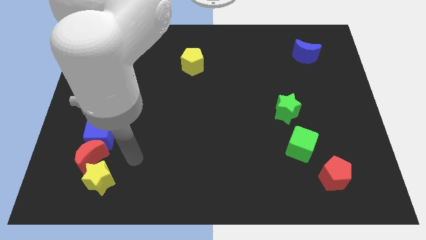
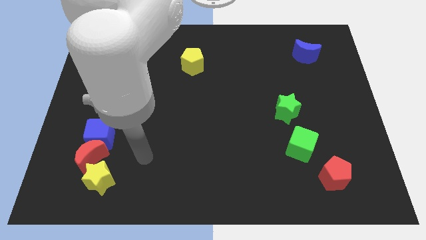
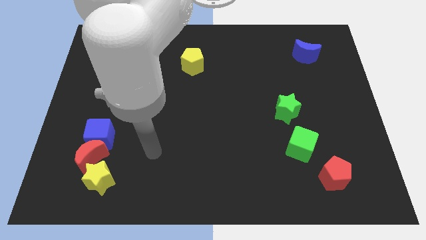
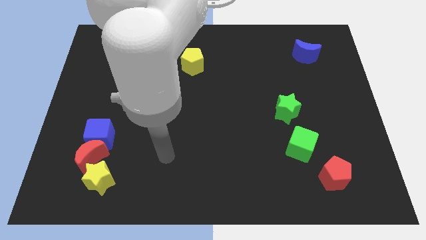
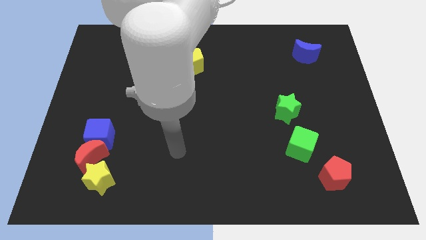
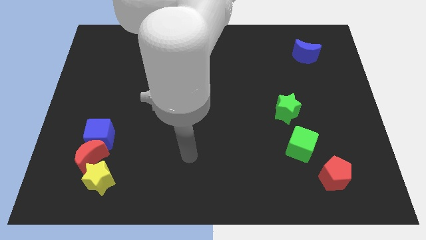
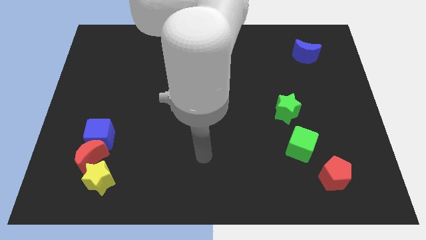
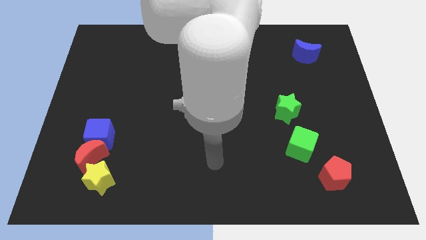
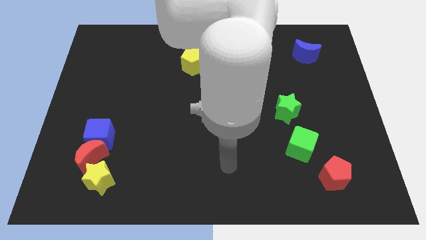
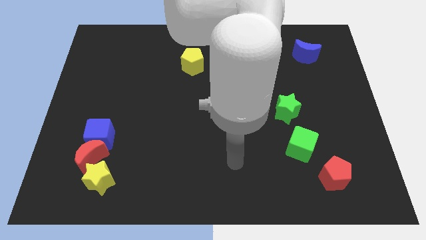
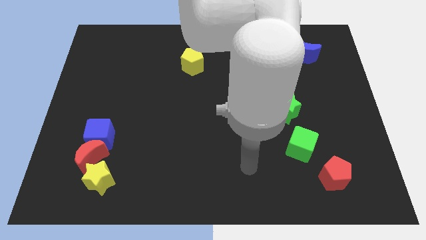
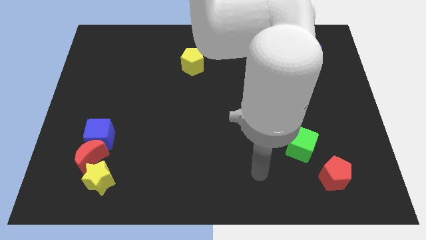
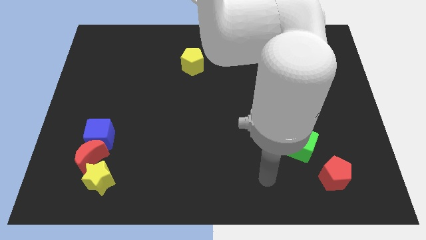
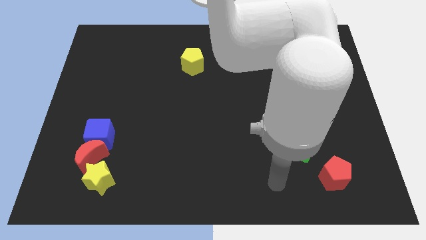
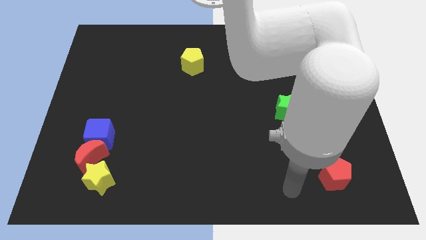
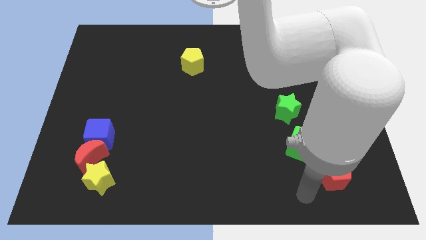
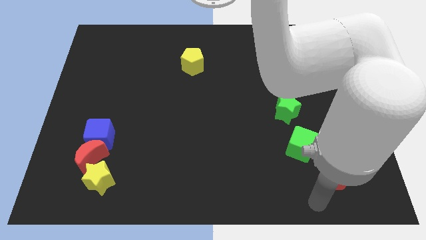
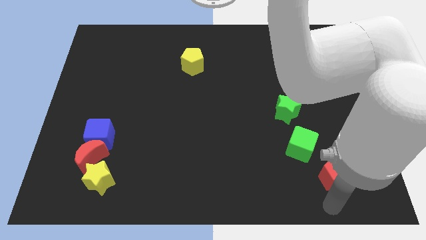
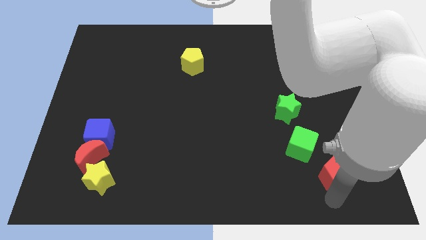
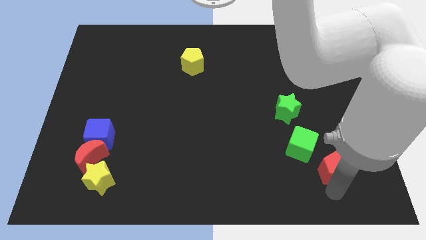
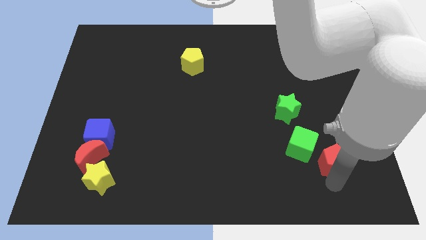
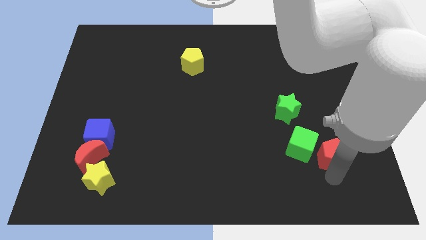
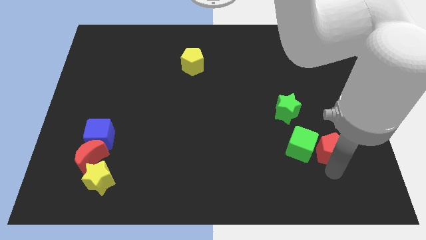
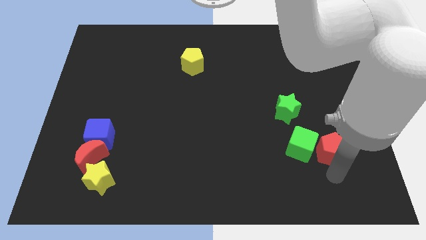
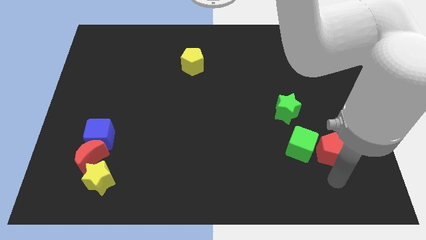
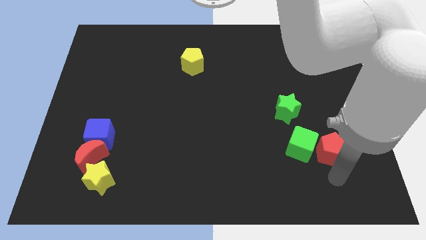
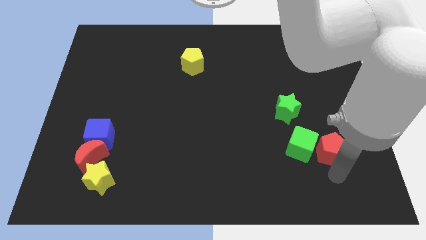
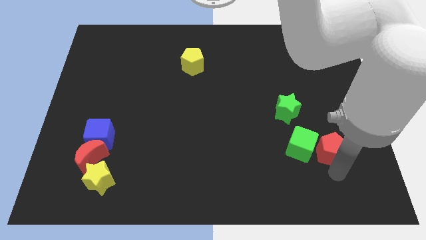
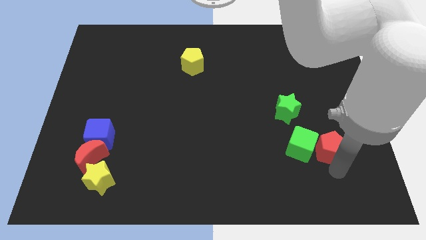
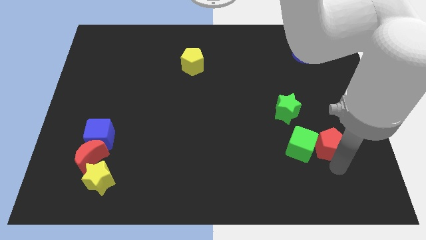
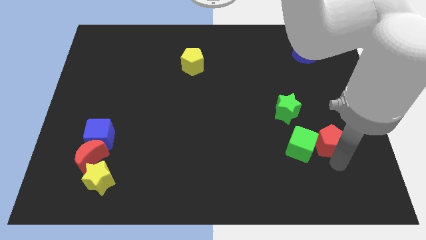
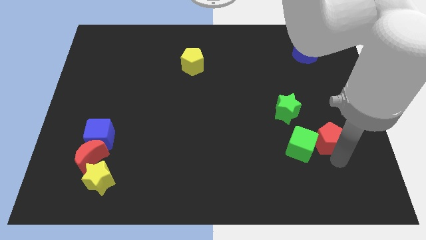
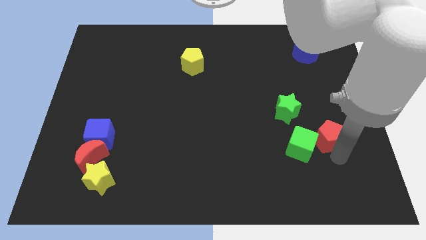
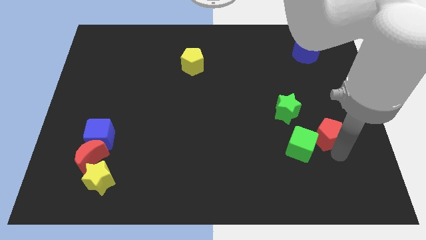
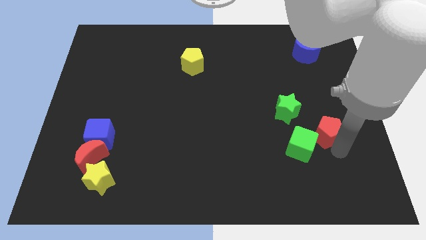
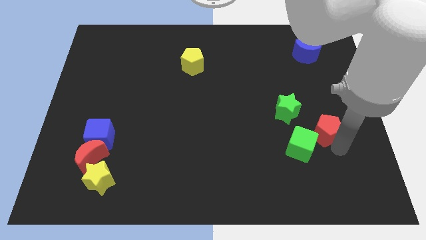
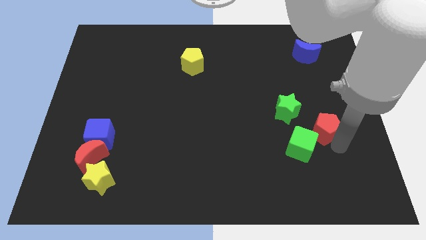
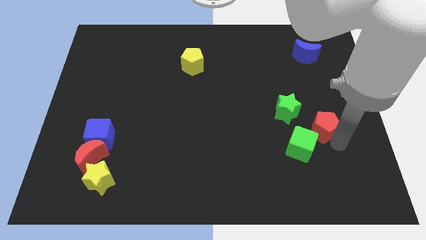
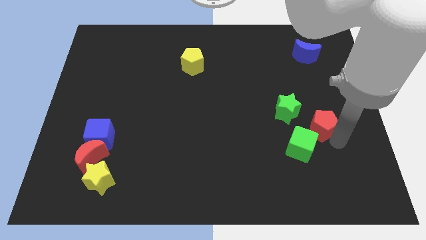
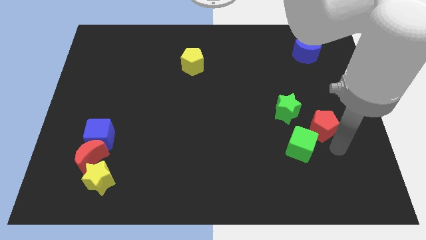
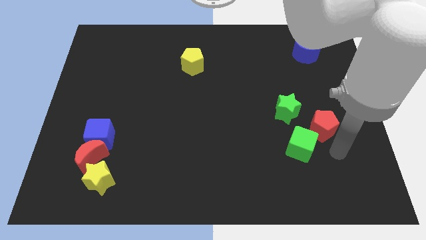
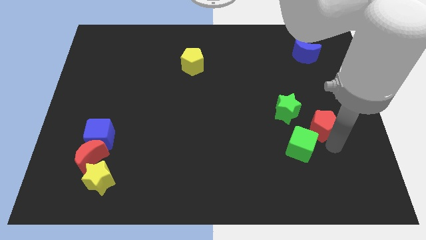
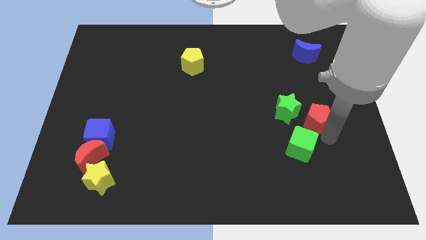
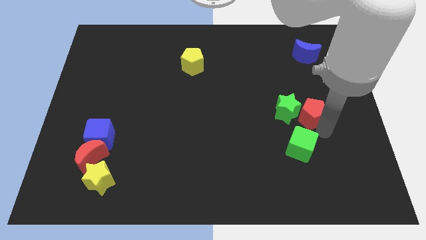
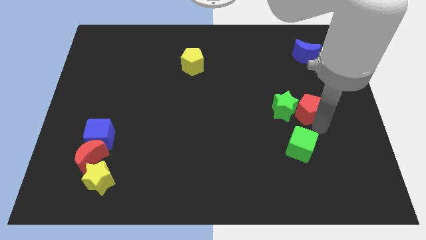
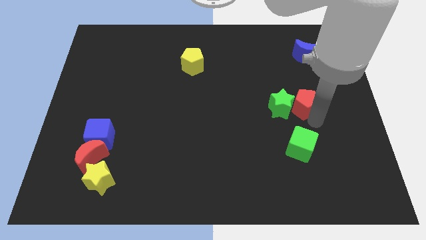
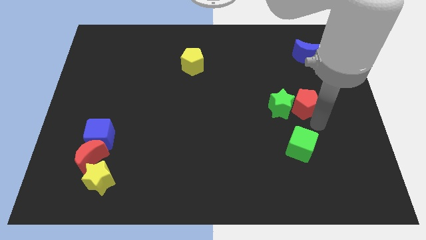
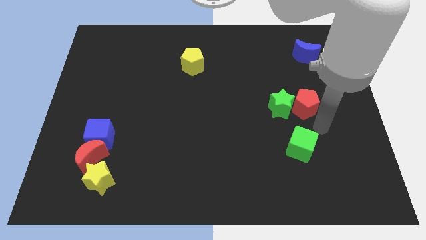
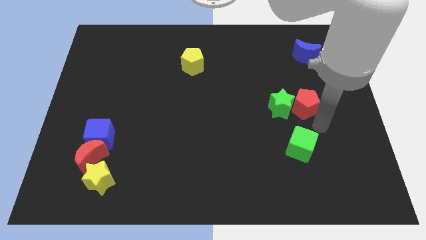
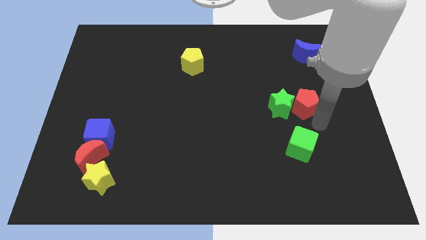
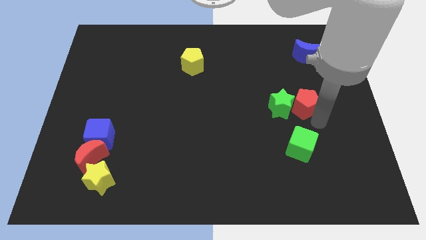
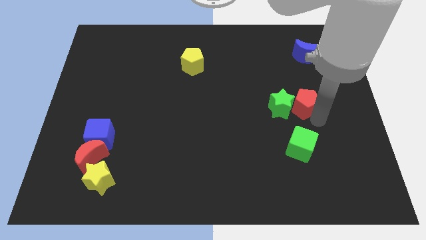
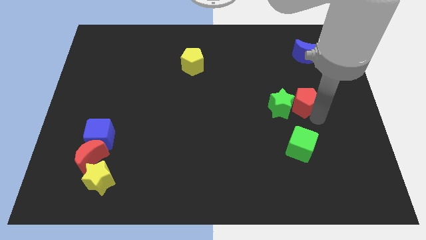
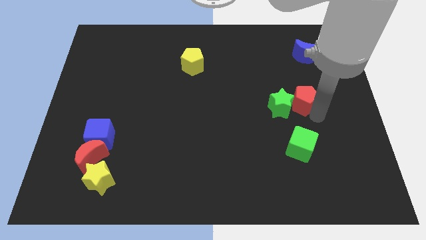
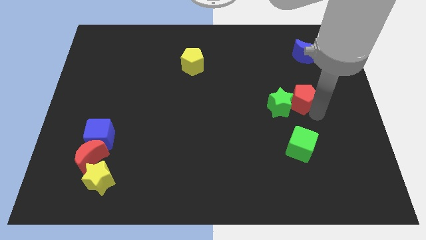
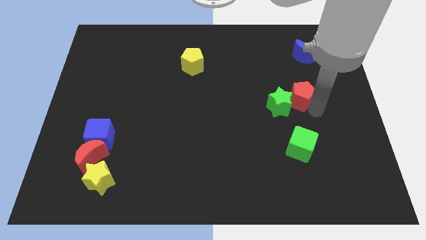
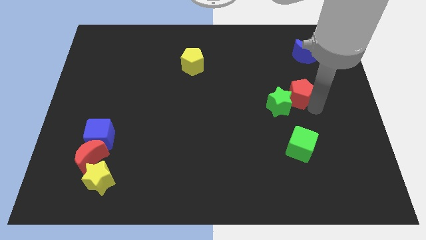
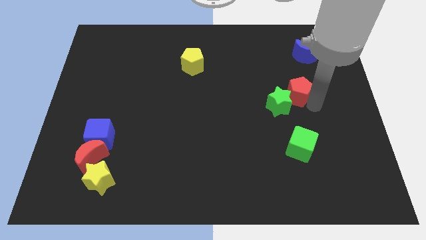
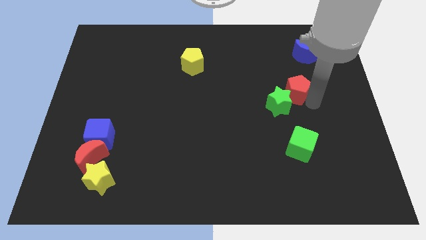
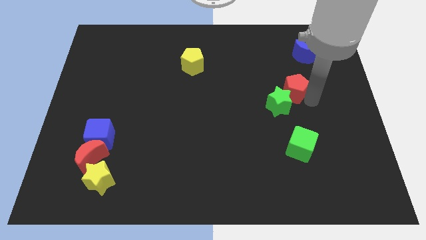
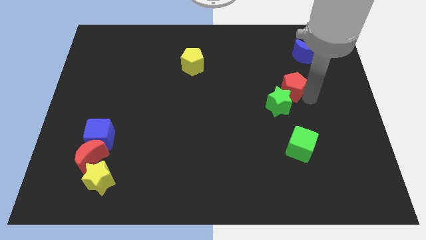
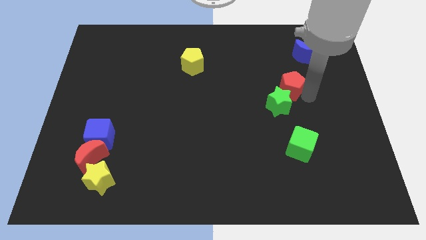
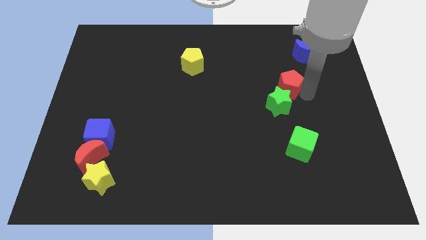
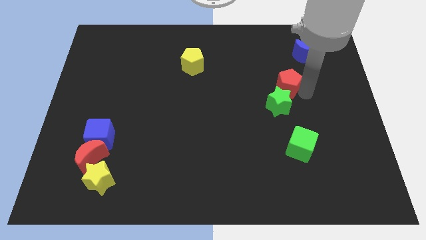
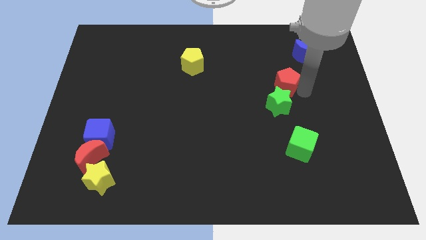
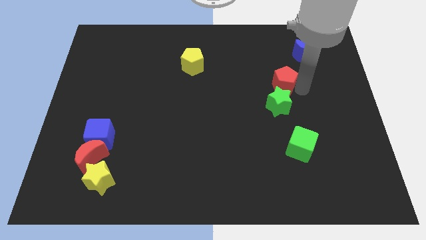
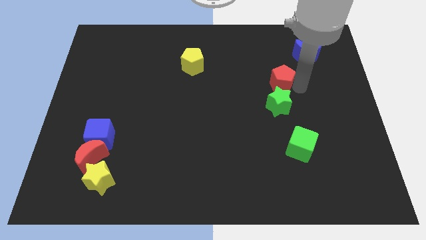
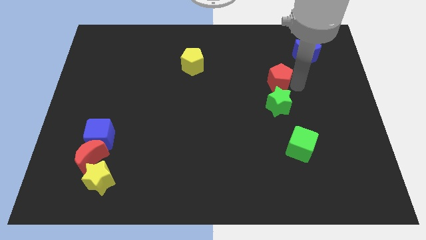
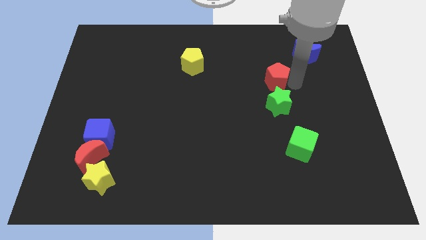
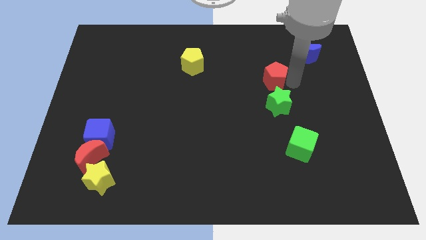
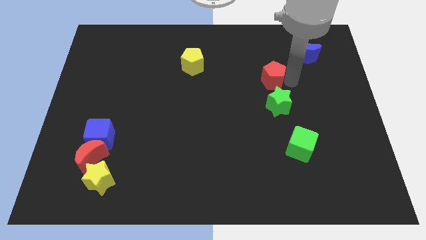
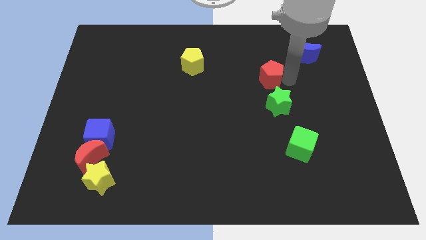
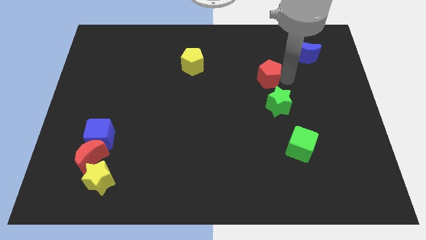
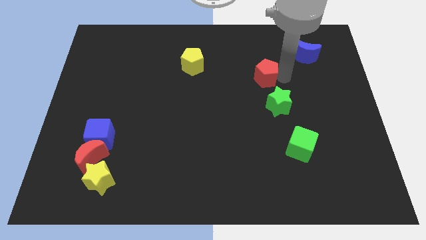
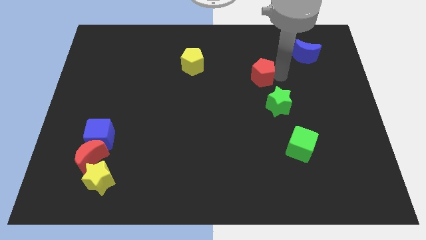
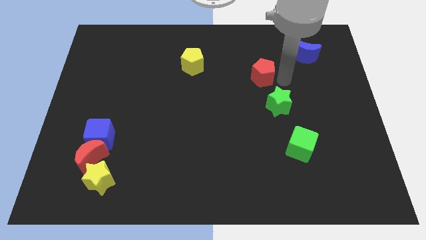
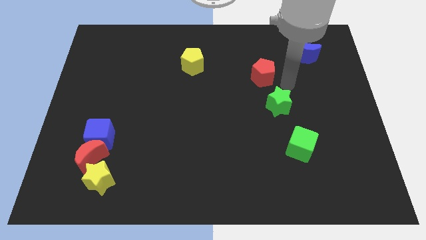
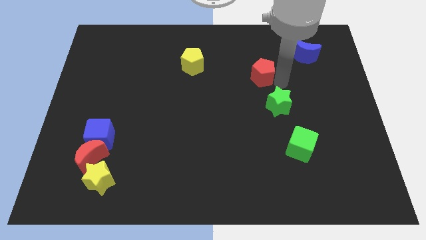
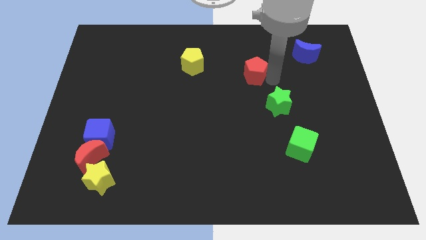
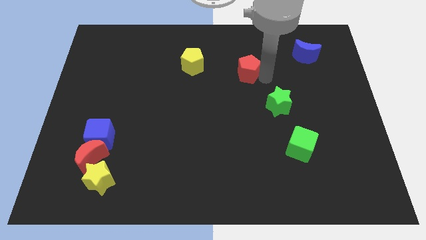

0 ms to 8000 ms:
move the red pentagon to the right side of the yellow pentagon
